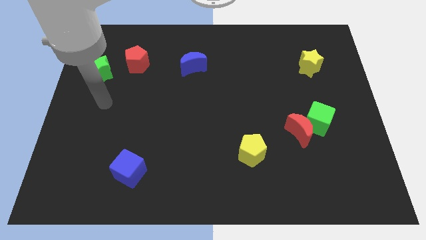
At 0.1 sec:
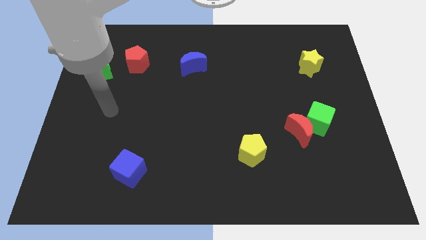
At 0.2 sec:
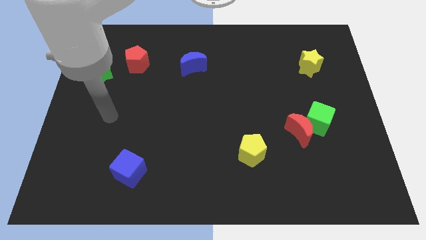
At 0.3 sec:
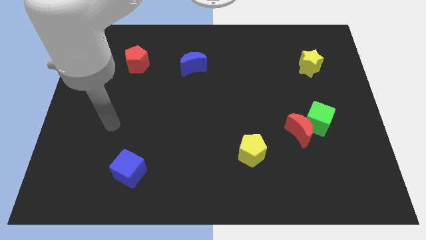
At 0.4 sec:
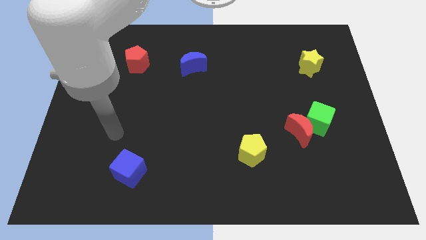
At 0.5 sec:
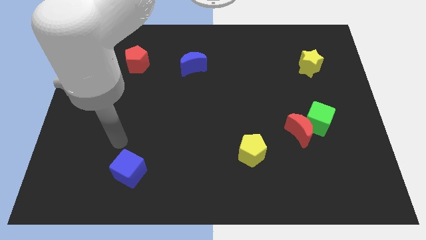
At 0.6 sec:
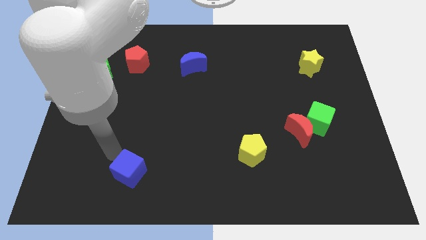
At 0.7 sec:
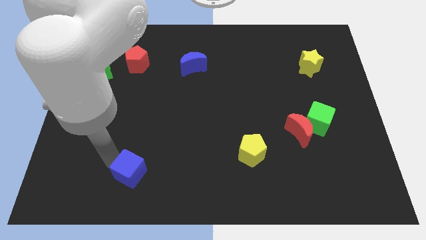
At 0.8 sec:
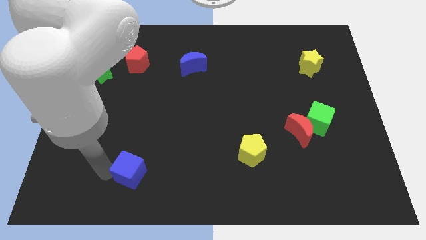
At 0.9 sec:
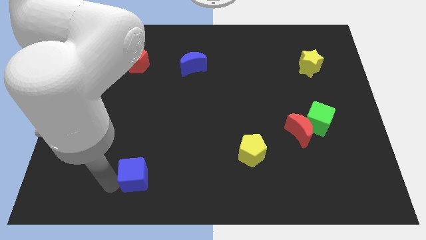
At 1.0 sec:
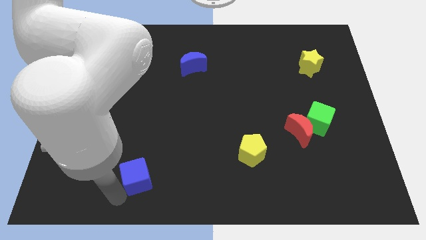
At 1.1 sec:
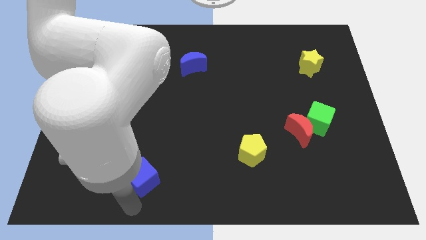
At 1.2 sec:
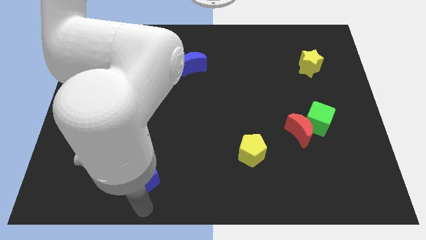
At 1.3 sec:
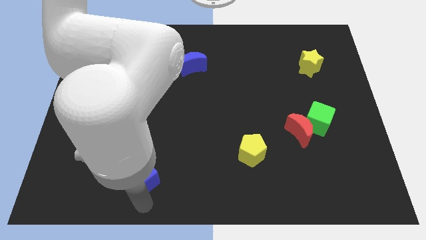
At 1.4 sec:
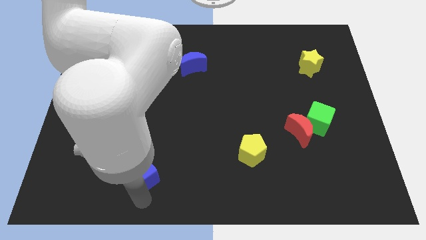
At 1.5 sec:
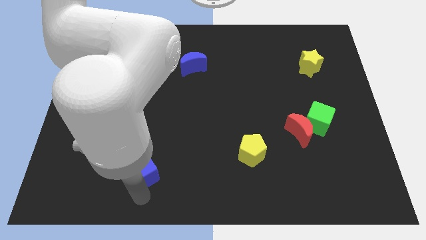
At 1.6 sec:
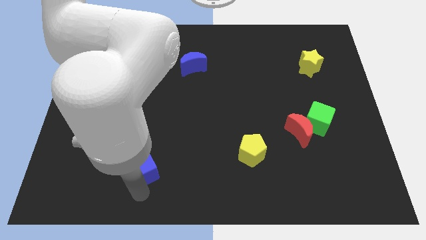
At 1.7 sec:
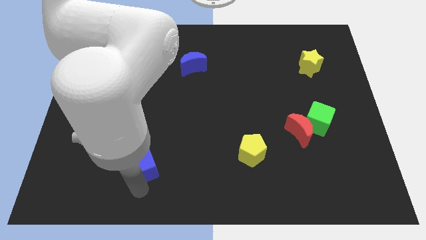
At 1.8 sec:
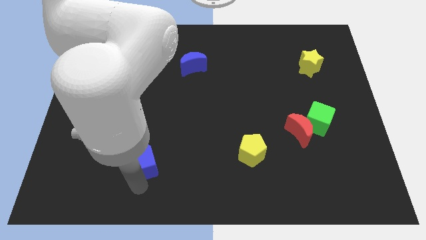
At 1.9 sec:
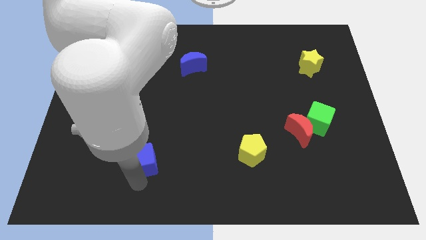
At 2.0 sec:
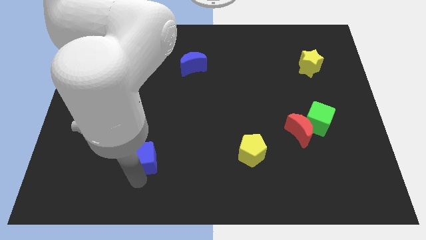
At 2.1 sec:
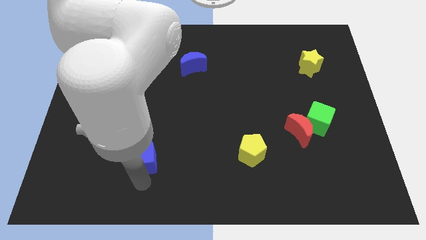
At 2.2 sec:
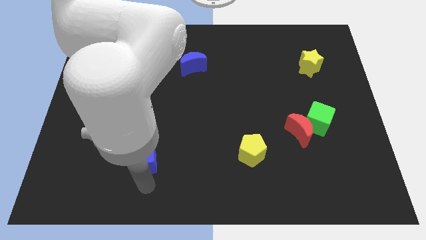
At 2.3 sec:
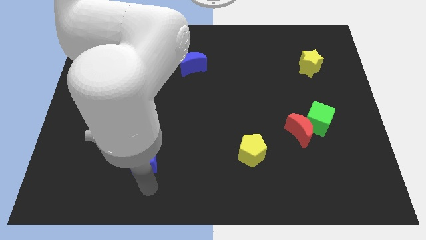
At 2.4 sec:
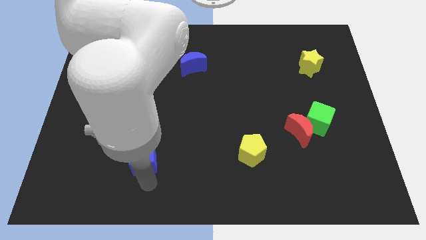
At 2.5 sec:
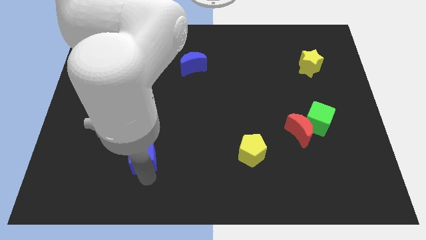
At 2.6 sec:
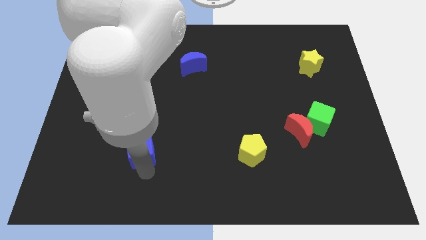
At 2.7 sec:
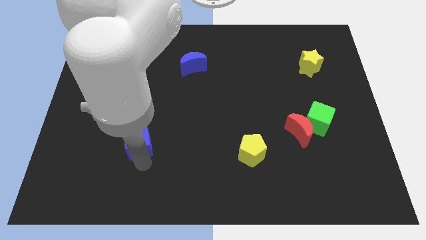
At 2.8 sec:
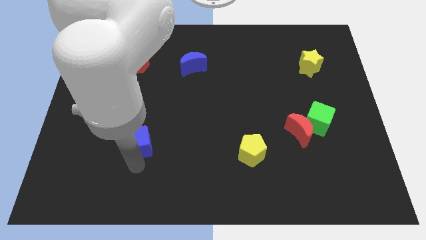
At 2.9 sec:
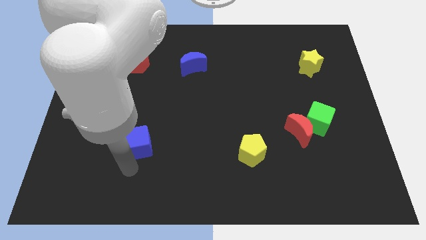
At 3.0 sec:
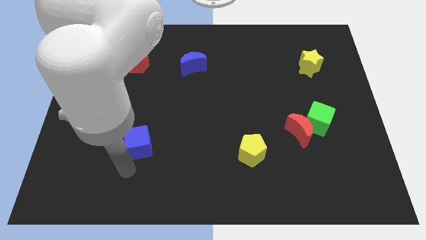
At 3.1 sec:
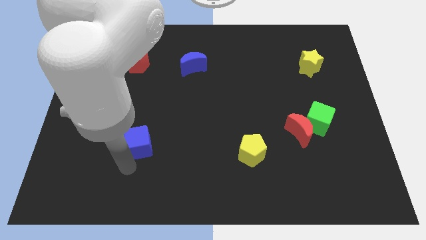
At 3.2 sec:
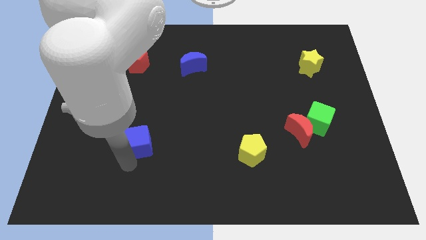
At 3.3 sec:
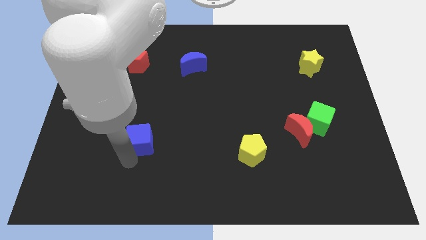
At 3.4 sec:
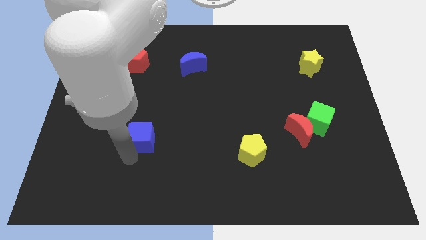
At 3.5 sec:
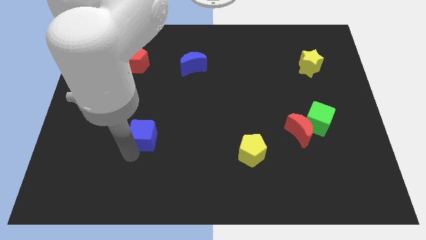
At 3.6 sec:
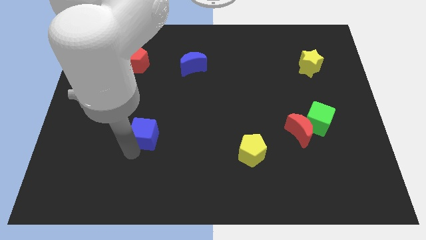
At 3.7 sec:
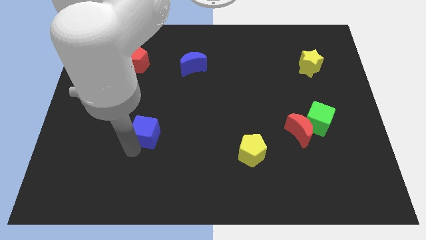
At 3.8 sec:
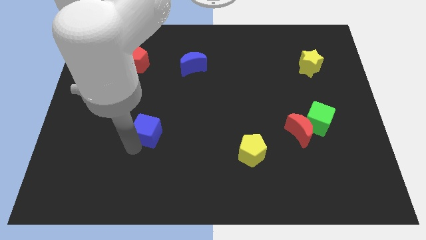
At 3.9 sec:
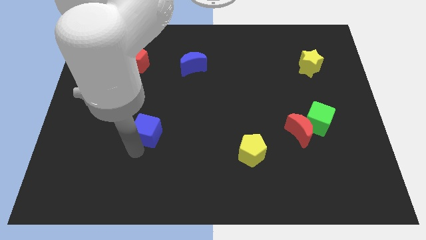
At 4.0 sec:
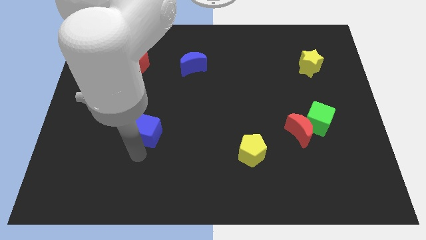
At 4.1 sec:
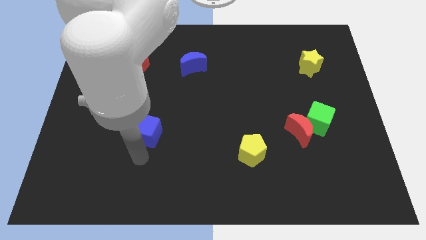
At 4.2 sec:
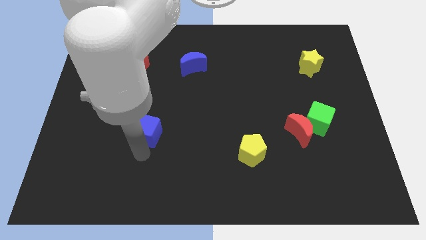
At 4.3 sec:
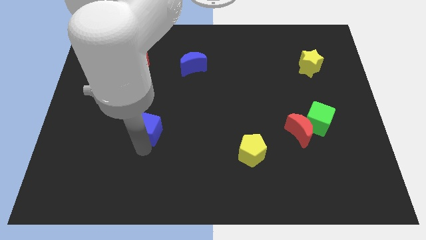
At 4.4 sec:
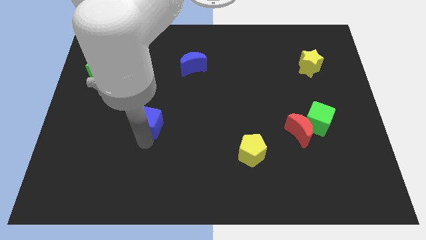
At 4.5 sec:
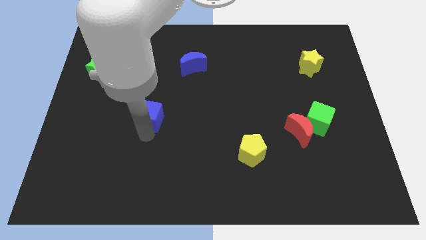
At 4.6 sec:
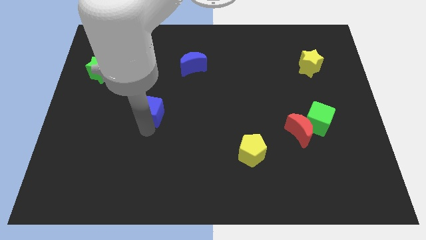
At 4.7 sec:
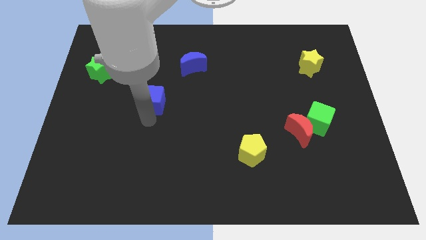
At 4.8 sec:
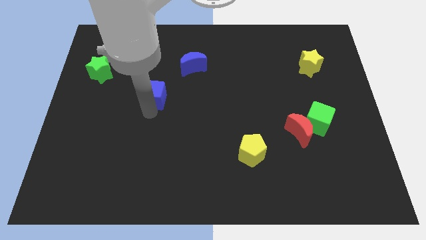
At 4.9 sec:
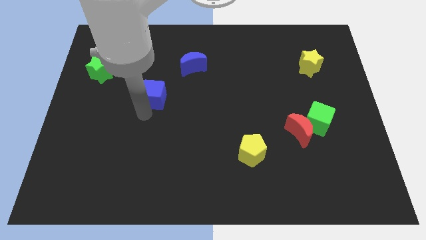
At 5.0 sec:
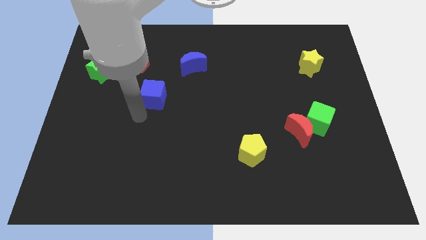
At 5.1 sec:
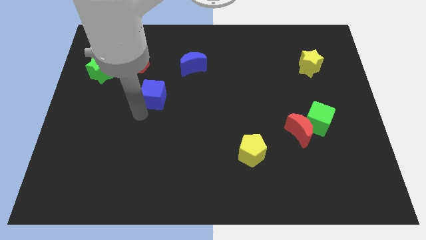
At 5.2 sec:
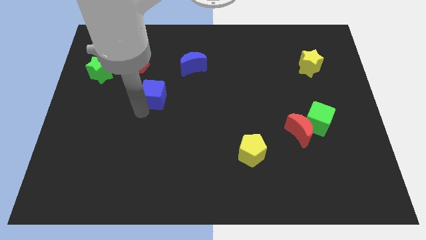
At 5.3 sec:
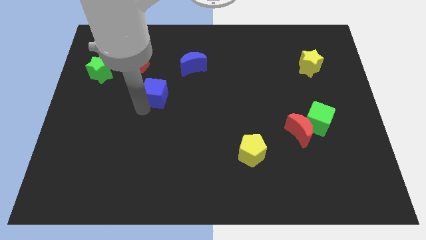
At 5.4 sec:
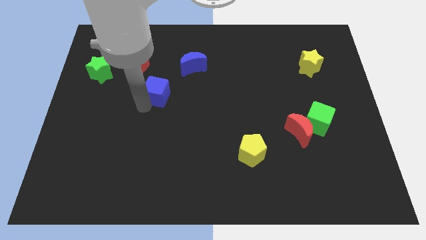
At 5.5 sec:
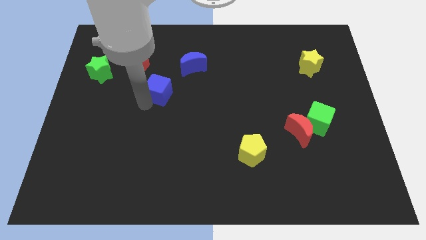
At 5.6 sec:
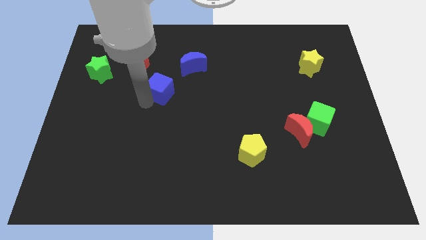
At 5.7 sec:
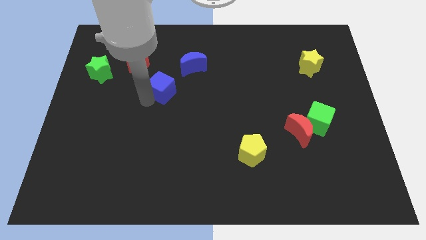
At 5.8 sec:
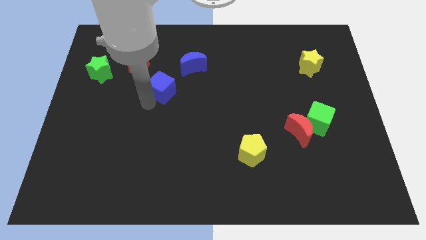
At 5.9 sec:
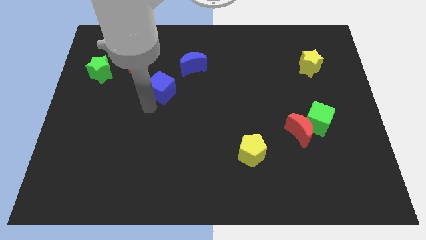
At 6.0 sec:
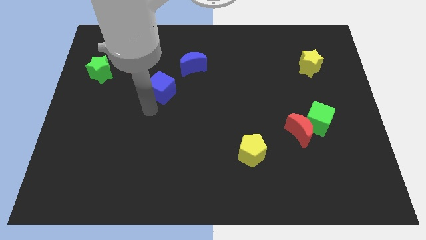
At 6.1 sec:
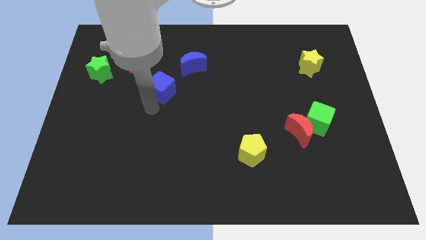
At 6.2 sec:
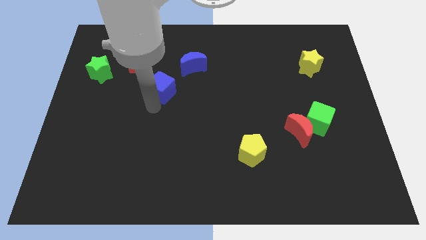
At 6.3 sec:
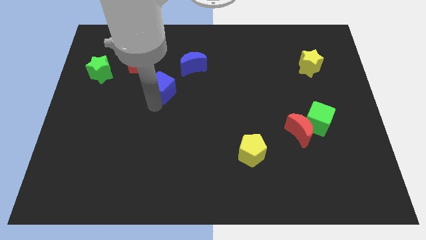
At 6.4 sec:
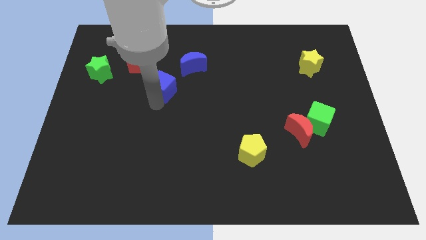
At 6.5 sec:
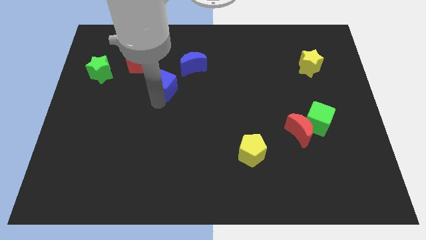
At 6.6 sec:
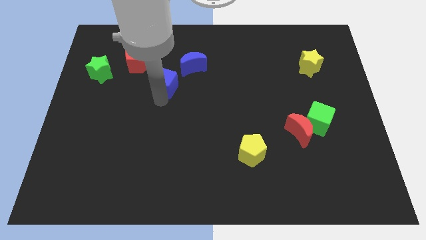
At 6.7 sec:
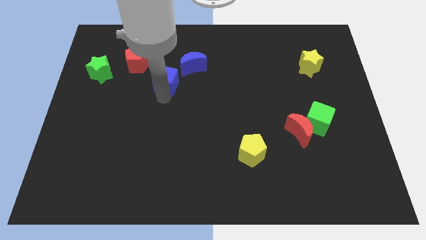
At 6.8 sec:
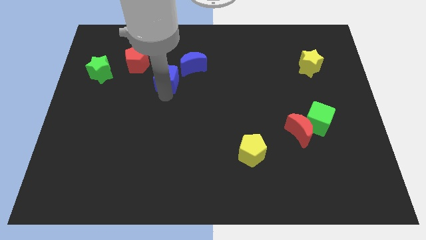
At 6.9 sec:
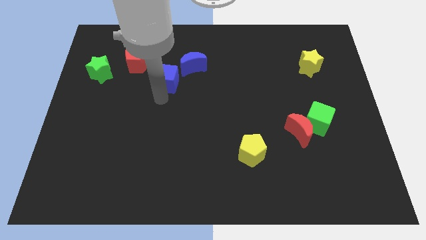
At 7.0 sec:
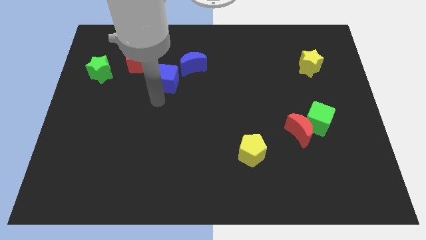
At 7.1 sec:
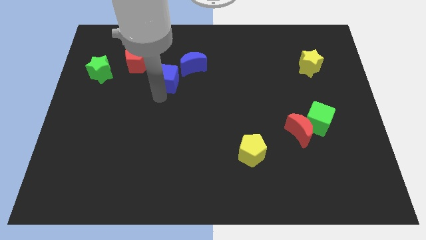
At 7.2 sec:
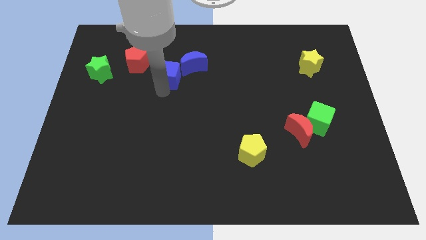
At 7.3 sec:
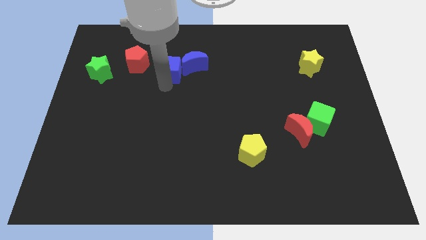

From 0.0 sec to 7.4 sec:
put the blue cube to the right side of the red pentagon
